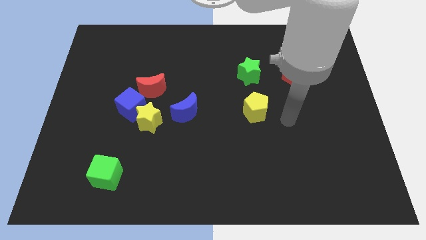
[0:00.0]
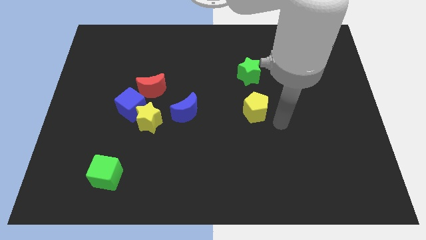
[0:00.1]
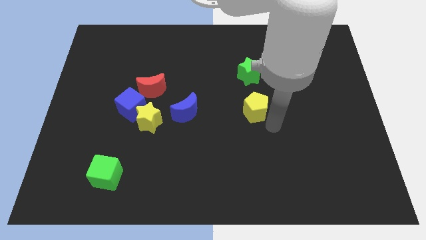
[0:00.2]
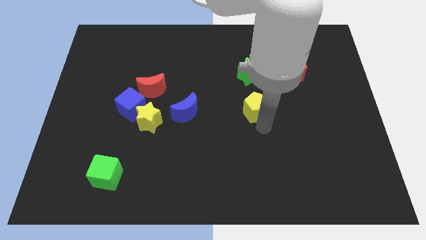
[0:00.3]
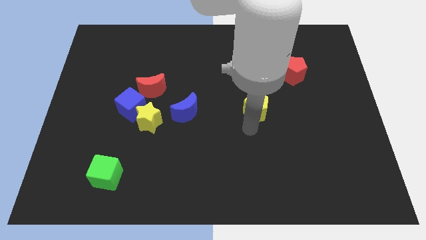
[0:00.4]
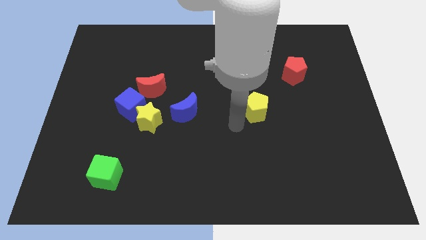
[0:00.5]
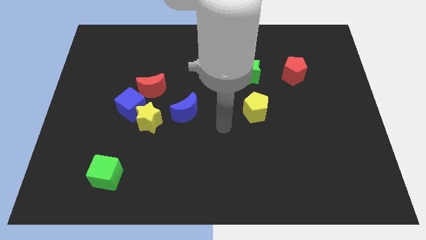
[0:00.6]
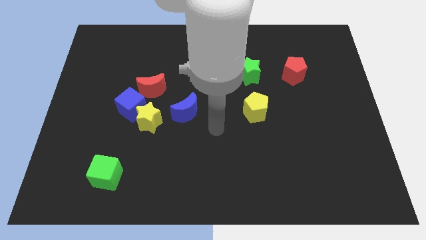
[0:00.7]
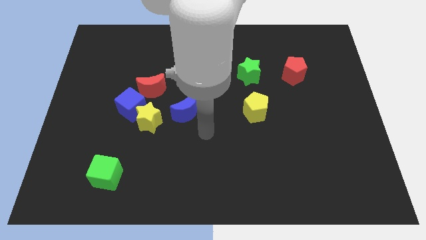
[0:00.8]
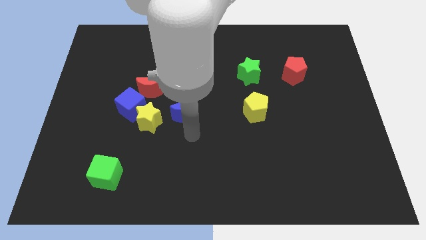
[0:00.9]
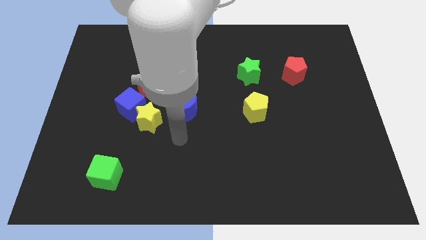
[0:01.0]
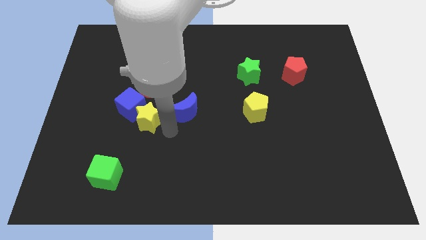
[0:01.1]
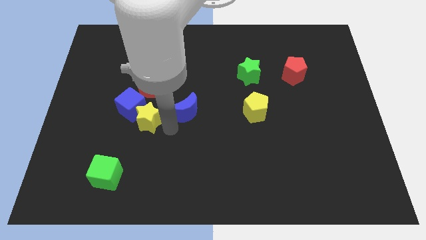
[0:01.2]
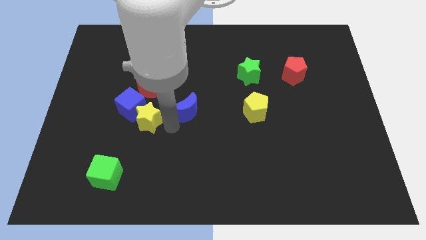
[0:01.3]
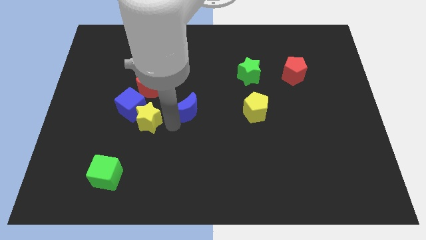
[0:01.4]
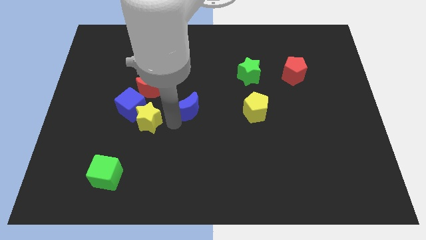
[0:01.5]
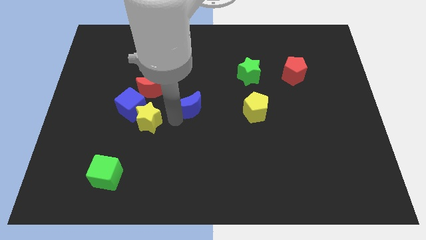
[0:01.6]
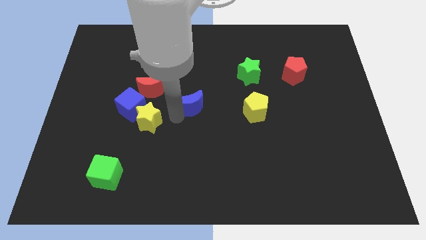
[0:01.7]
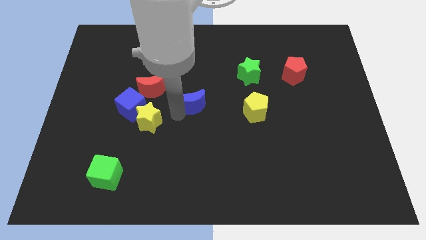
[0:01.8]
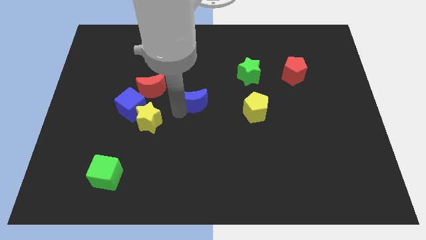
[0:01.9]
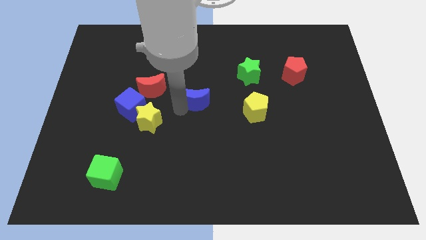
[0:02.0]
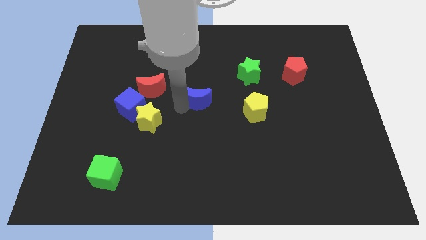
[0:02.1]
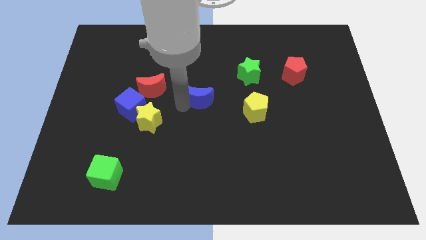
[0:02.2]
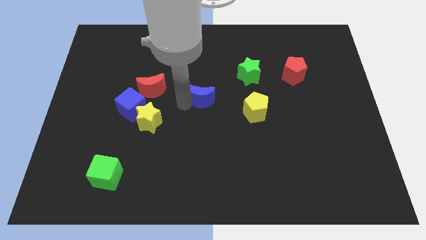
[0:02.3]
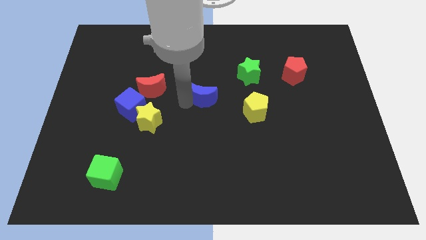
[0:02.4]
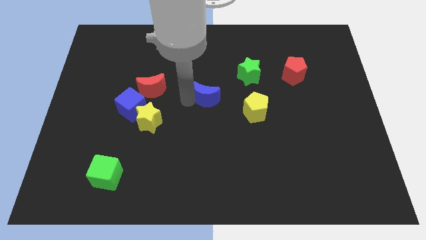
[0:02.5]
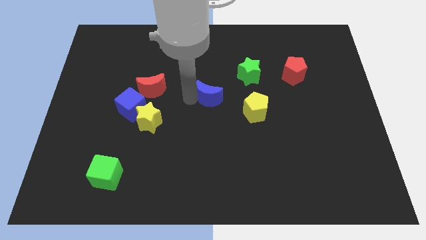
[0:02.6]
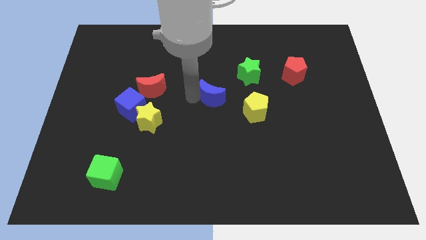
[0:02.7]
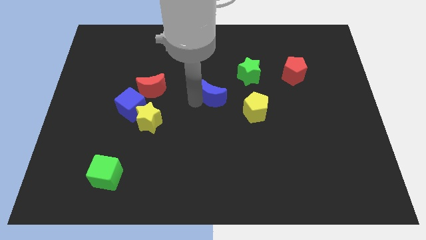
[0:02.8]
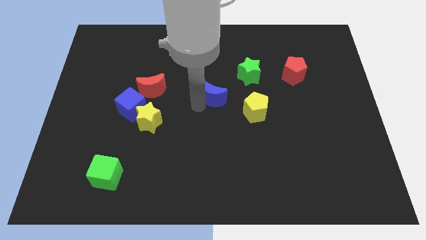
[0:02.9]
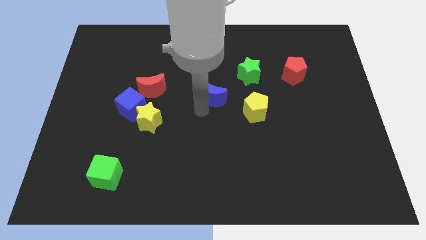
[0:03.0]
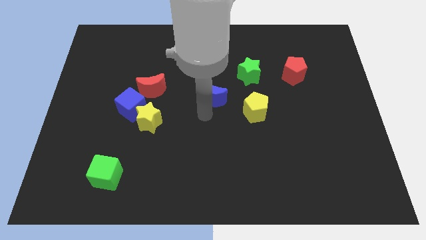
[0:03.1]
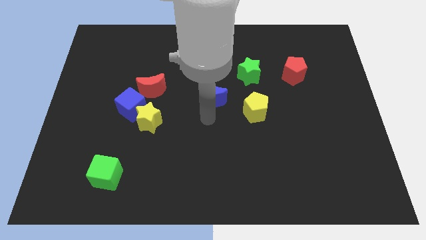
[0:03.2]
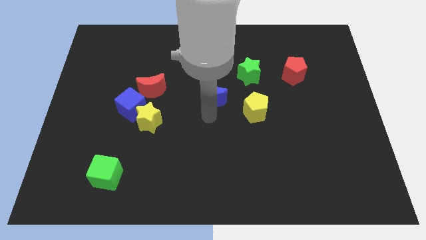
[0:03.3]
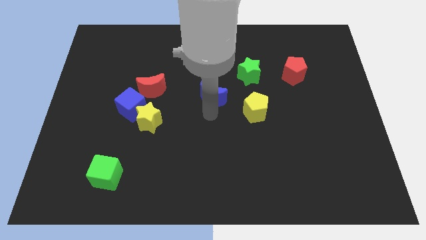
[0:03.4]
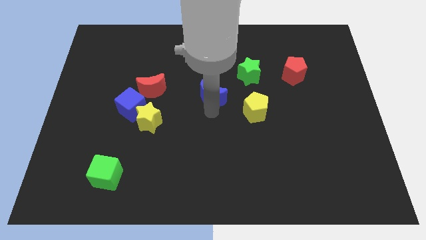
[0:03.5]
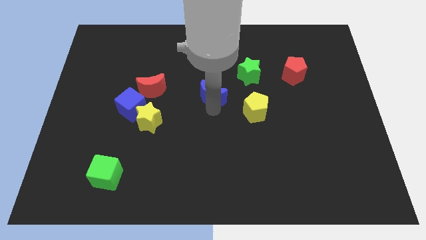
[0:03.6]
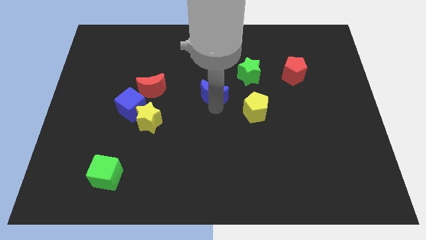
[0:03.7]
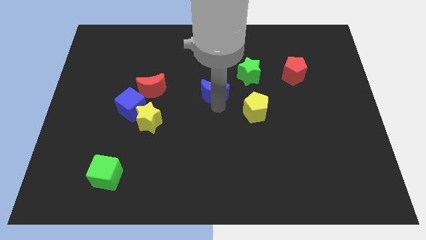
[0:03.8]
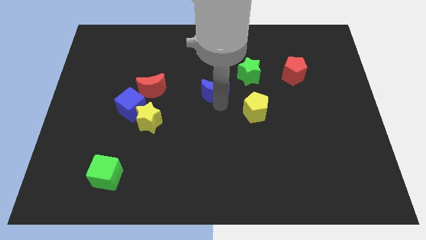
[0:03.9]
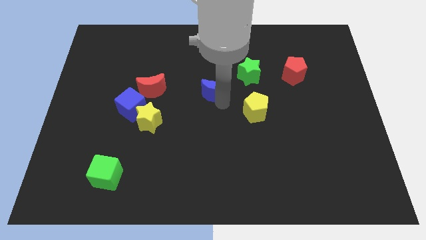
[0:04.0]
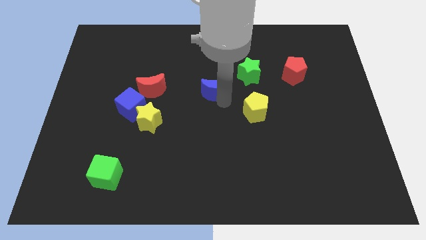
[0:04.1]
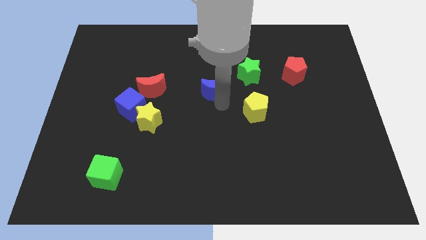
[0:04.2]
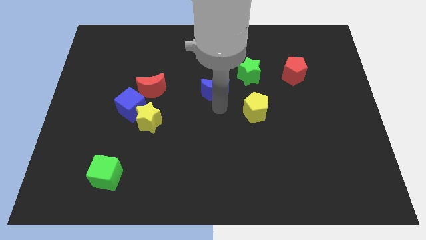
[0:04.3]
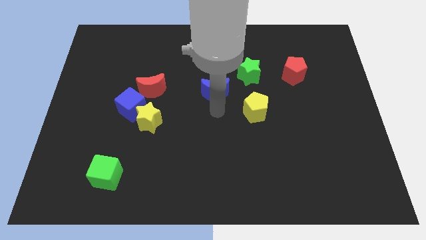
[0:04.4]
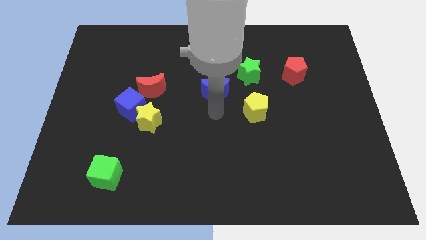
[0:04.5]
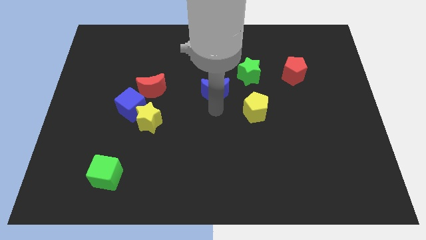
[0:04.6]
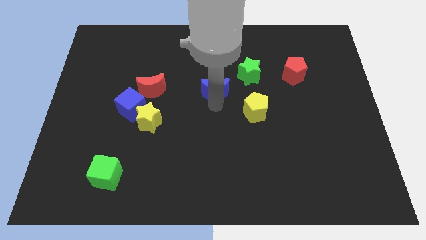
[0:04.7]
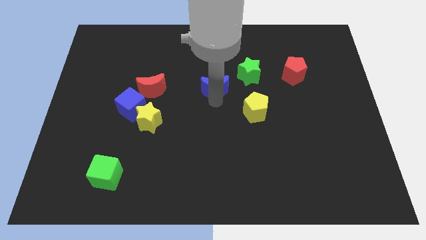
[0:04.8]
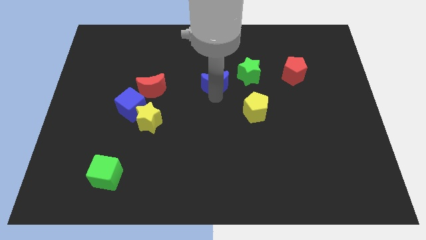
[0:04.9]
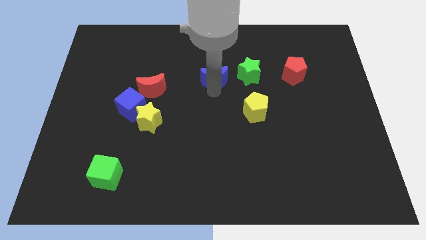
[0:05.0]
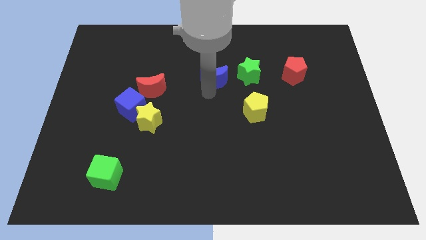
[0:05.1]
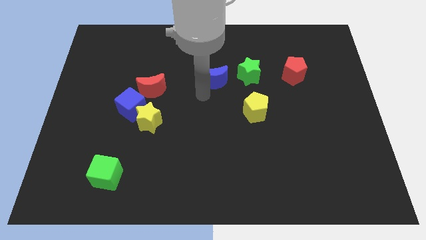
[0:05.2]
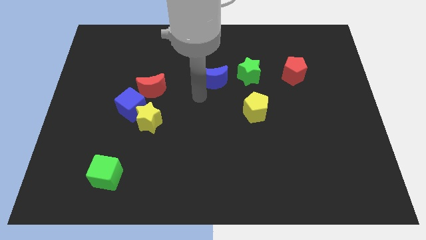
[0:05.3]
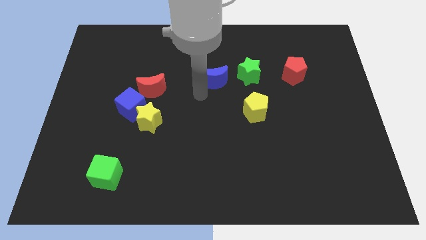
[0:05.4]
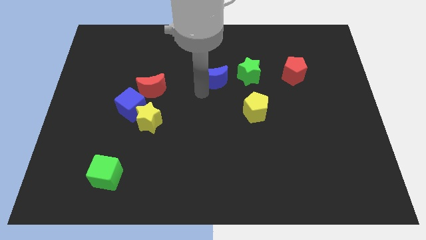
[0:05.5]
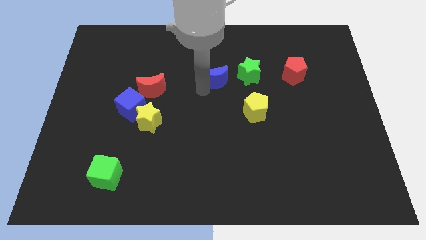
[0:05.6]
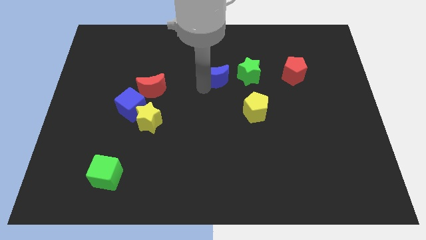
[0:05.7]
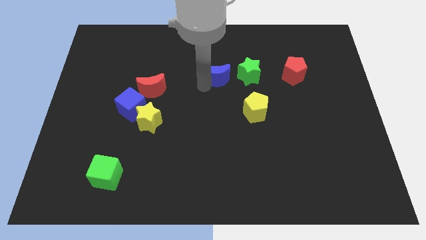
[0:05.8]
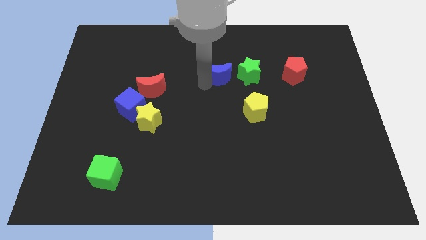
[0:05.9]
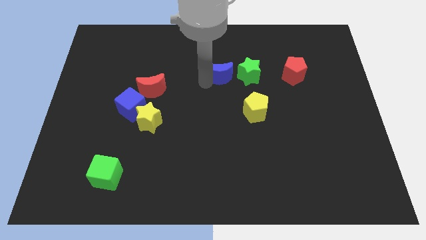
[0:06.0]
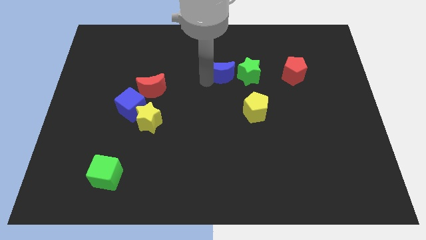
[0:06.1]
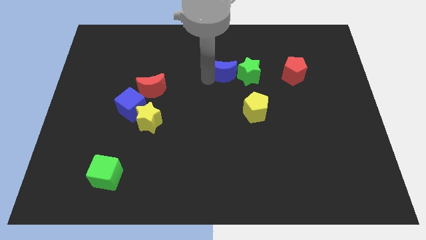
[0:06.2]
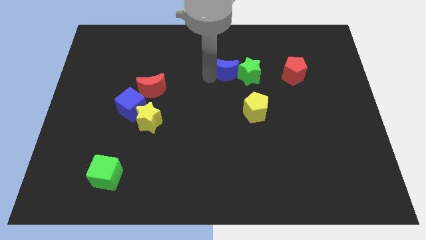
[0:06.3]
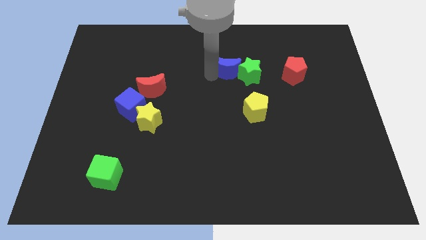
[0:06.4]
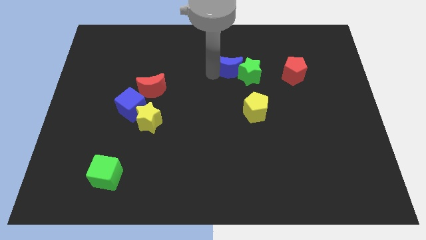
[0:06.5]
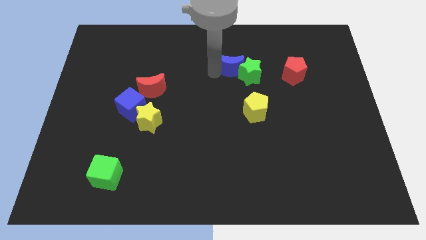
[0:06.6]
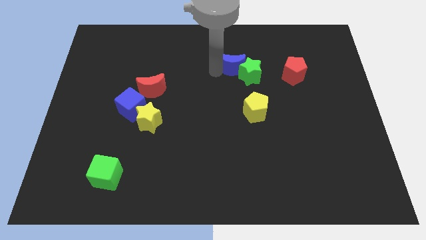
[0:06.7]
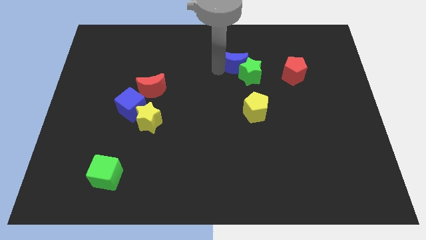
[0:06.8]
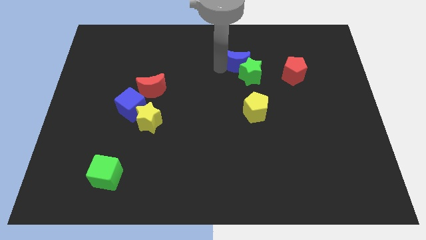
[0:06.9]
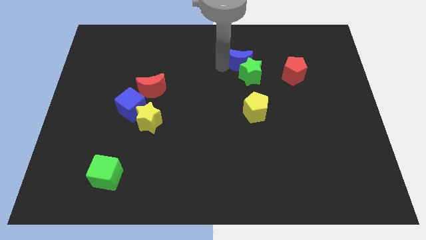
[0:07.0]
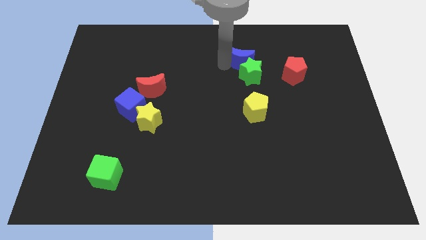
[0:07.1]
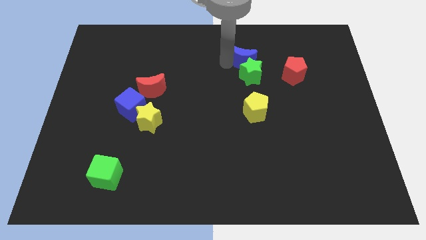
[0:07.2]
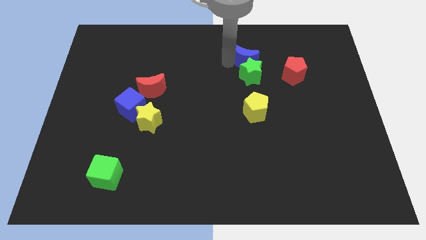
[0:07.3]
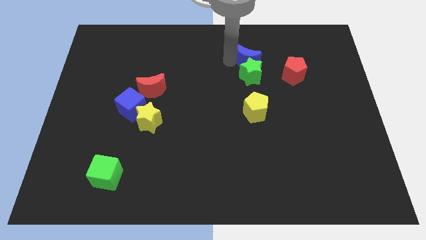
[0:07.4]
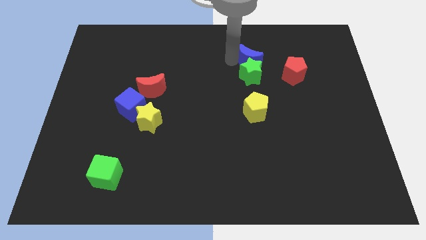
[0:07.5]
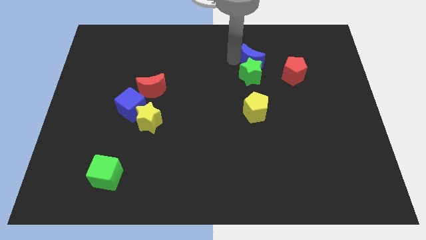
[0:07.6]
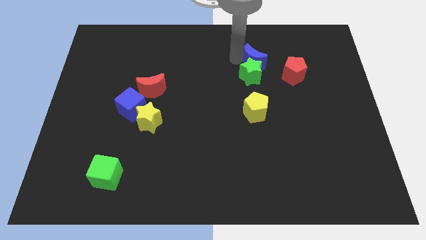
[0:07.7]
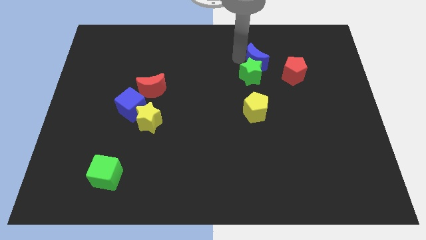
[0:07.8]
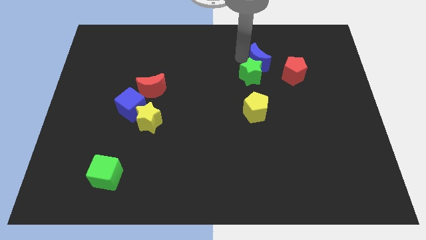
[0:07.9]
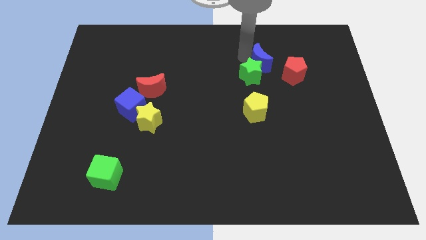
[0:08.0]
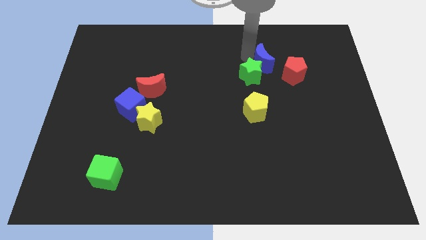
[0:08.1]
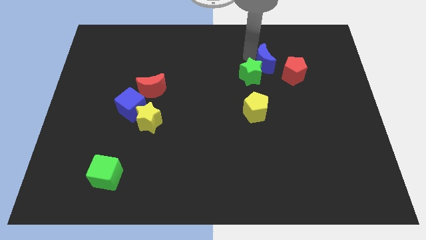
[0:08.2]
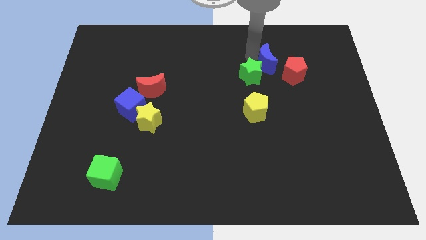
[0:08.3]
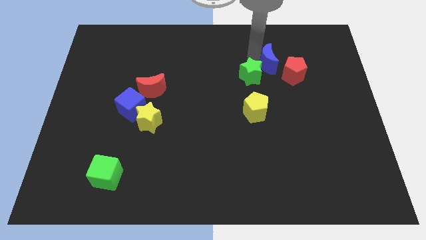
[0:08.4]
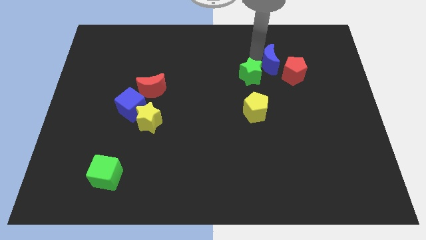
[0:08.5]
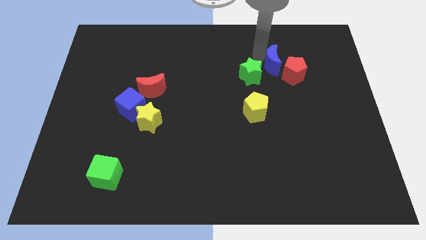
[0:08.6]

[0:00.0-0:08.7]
move the blue moon to the red pentagon
